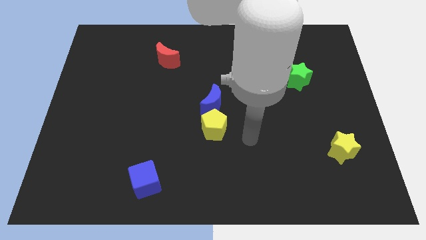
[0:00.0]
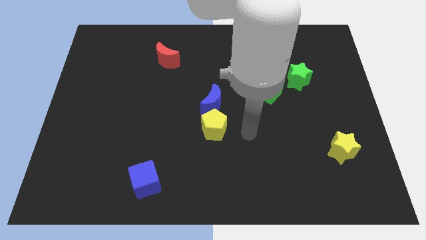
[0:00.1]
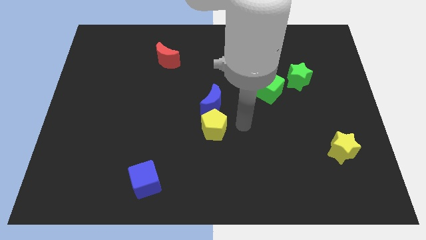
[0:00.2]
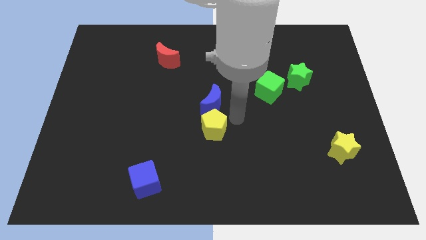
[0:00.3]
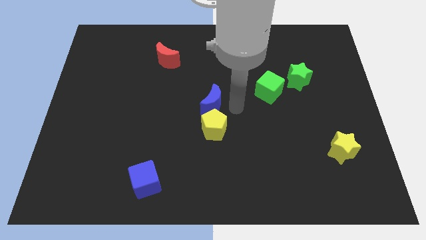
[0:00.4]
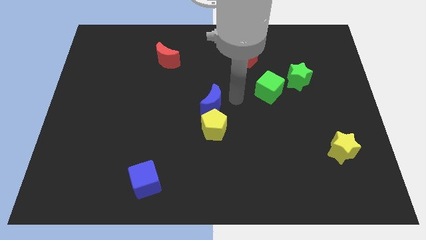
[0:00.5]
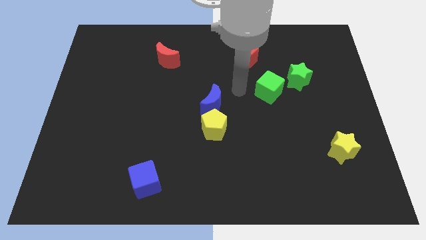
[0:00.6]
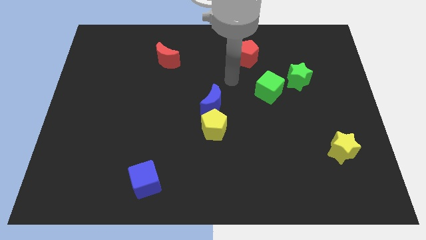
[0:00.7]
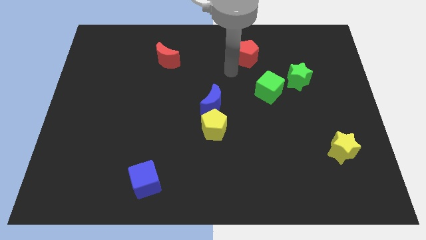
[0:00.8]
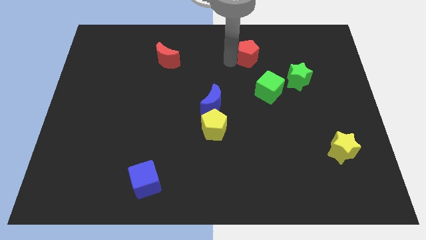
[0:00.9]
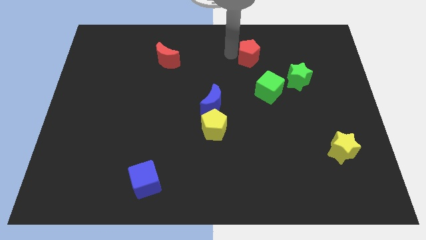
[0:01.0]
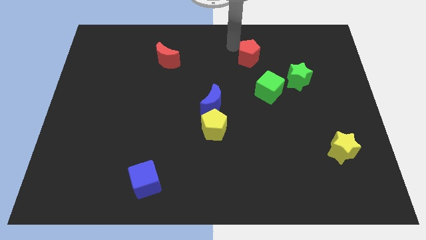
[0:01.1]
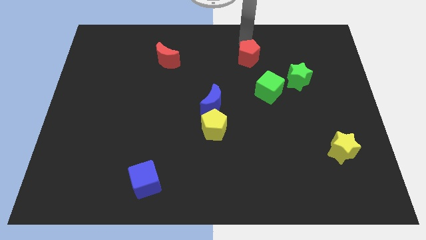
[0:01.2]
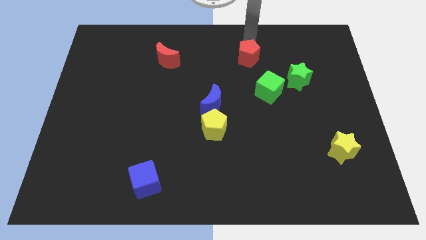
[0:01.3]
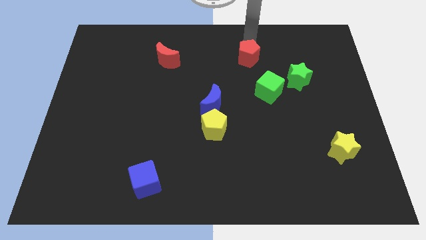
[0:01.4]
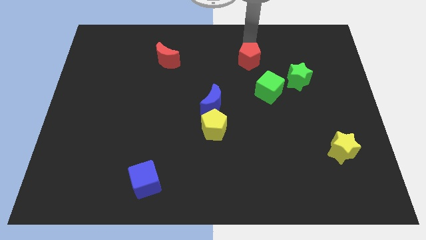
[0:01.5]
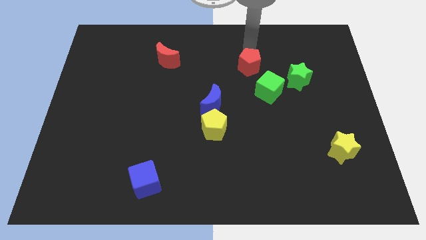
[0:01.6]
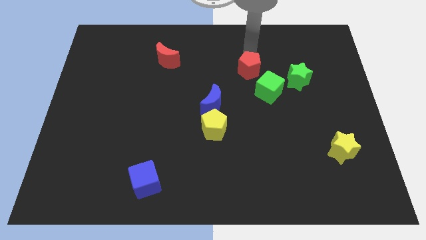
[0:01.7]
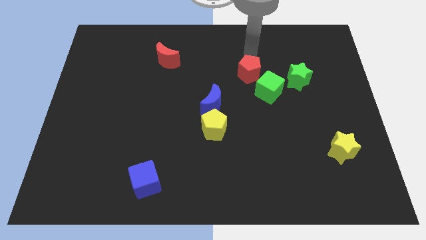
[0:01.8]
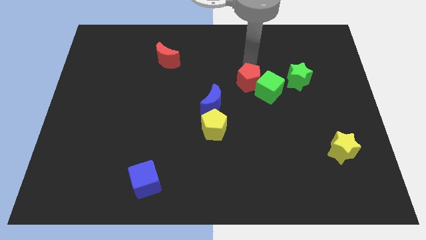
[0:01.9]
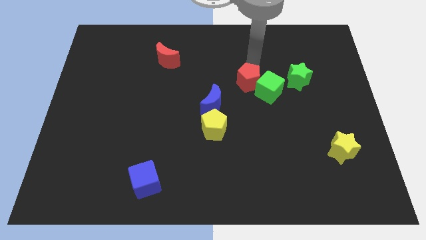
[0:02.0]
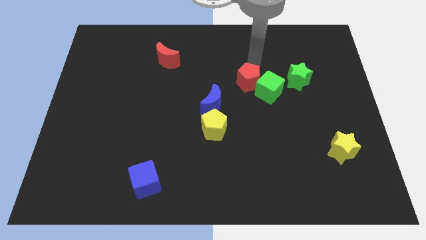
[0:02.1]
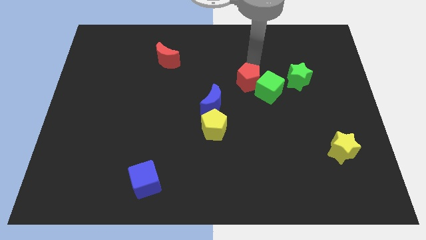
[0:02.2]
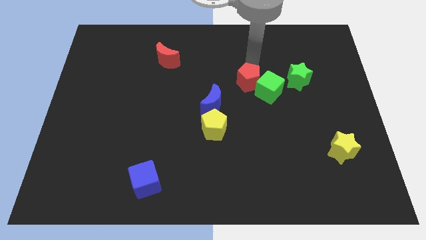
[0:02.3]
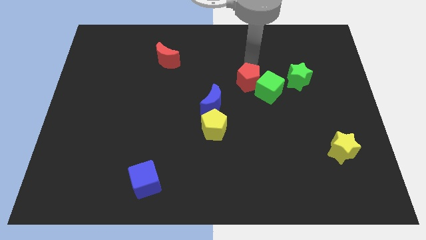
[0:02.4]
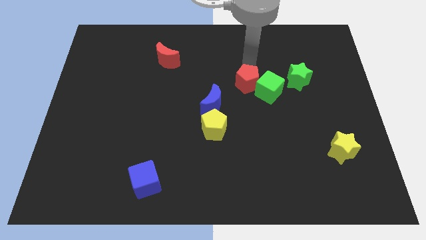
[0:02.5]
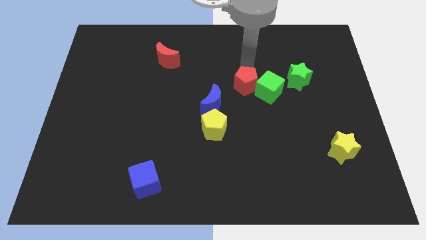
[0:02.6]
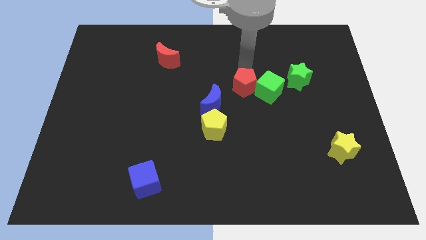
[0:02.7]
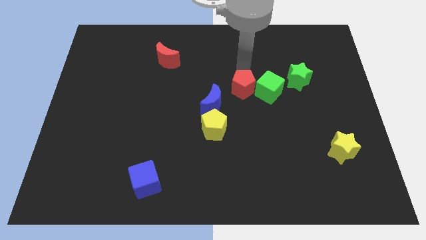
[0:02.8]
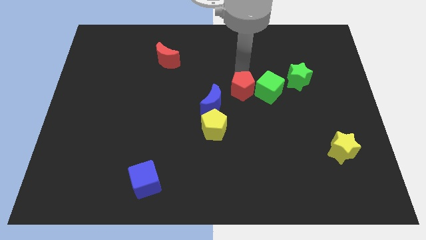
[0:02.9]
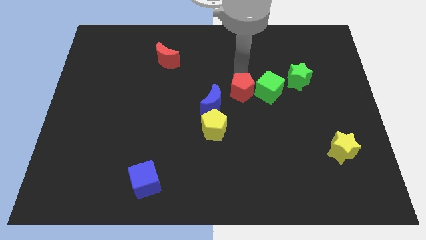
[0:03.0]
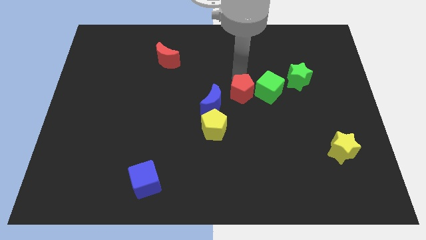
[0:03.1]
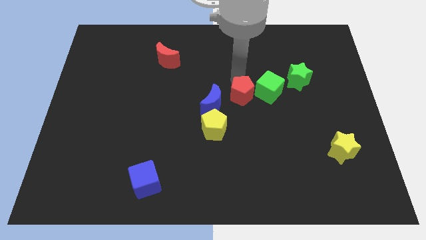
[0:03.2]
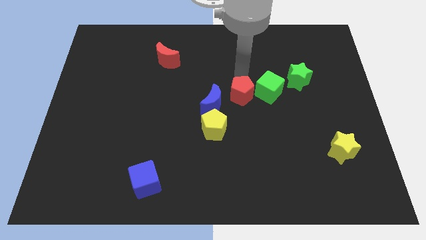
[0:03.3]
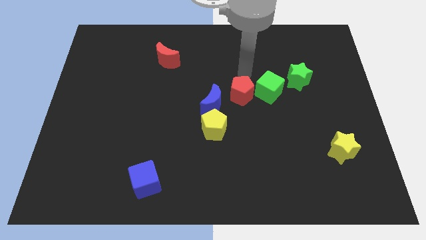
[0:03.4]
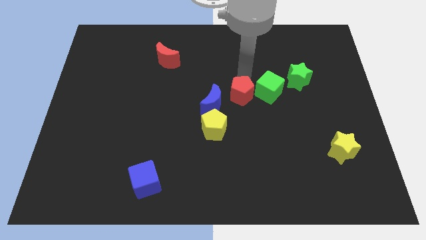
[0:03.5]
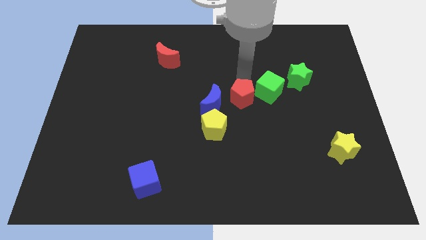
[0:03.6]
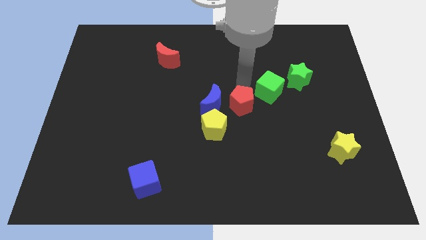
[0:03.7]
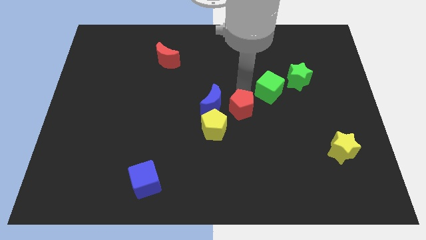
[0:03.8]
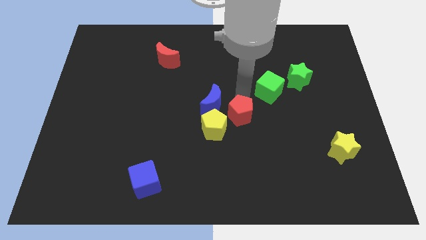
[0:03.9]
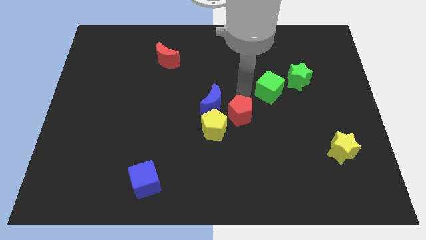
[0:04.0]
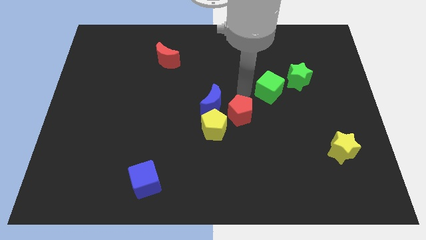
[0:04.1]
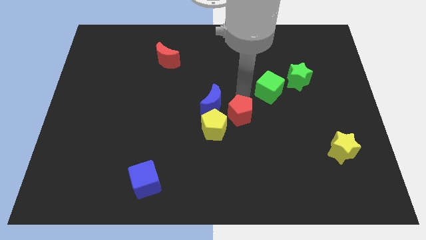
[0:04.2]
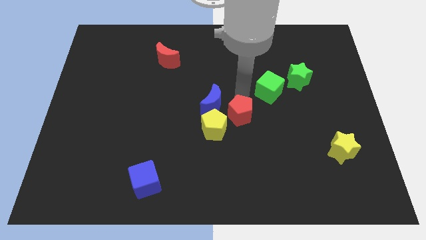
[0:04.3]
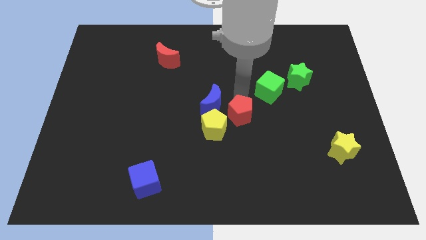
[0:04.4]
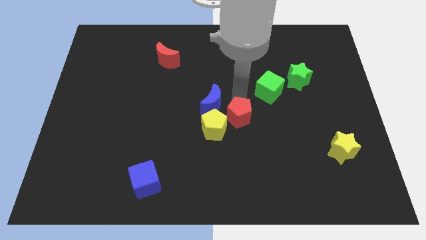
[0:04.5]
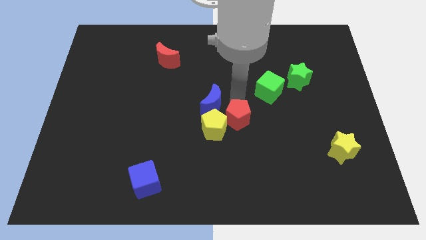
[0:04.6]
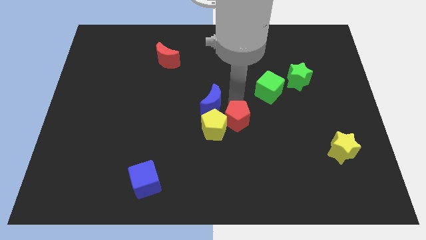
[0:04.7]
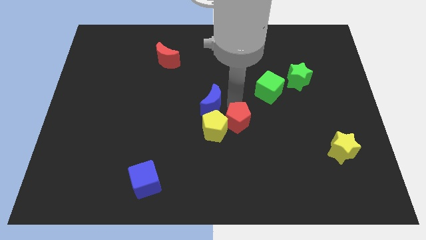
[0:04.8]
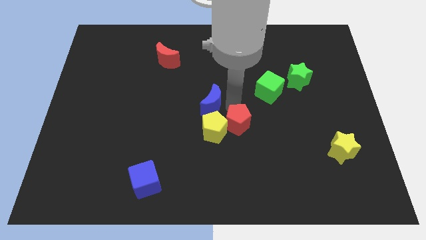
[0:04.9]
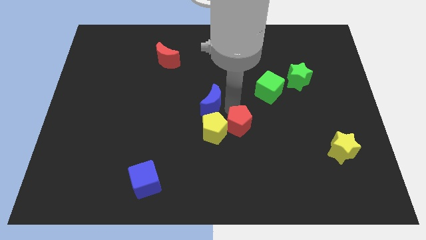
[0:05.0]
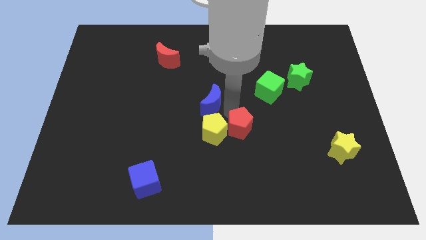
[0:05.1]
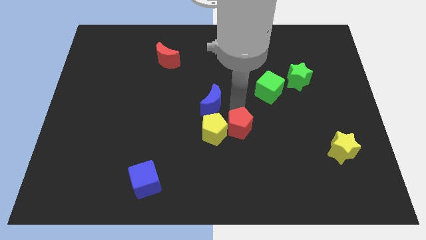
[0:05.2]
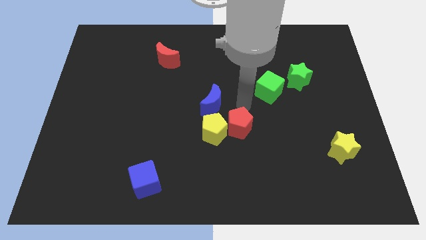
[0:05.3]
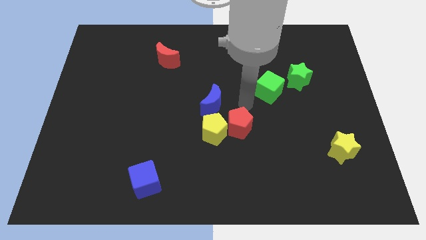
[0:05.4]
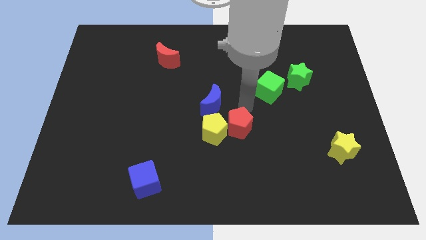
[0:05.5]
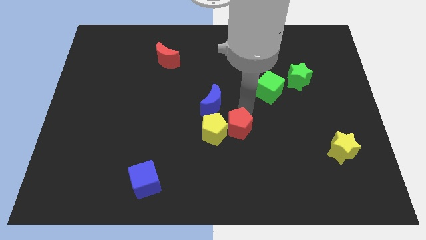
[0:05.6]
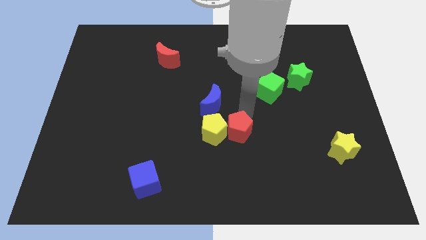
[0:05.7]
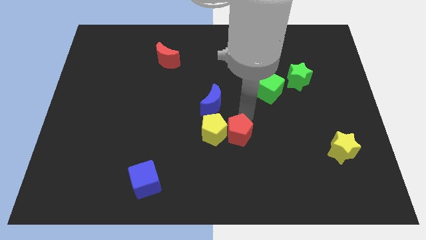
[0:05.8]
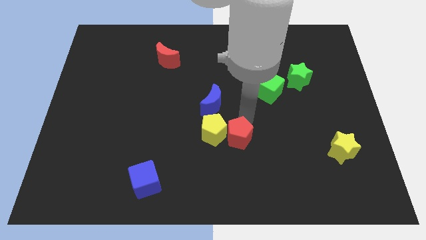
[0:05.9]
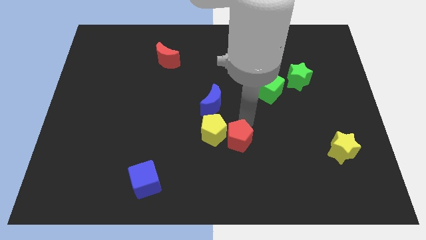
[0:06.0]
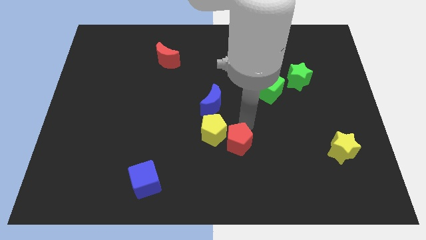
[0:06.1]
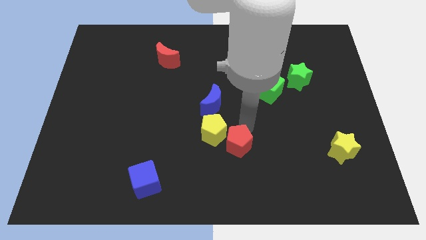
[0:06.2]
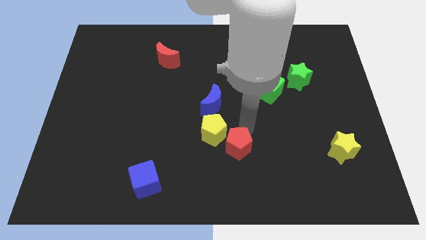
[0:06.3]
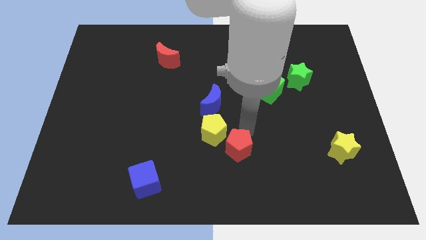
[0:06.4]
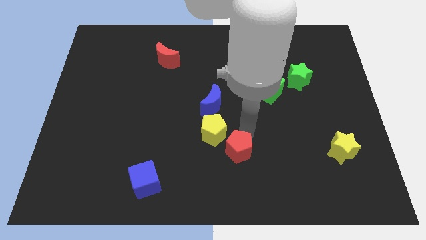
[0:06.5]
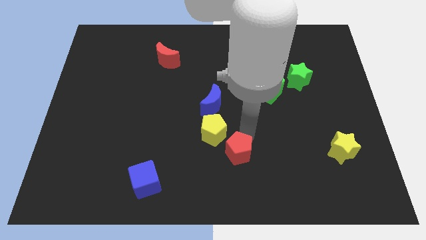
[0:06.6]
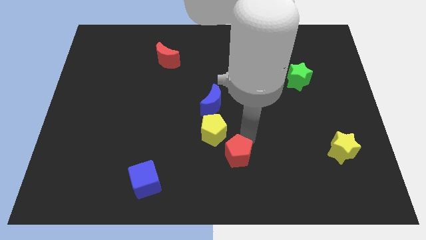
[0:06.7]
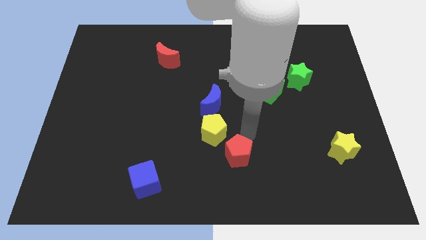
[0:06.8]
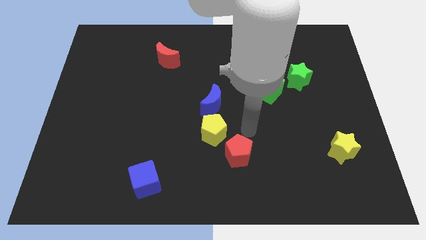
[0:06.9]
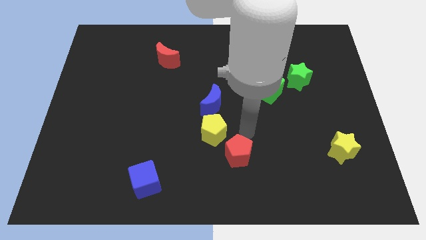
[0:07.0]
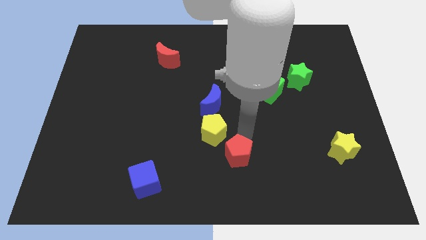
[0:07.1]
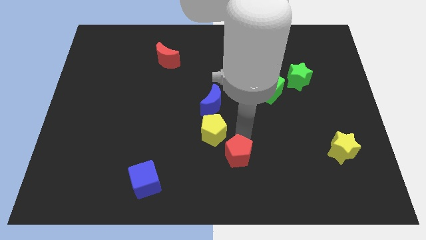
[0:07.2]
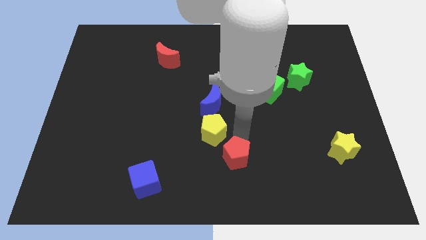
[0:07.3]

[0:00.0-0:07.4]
push the red pentagon to the bottom
